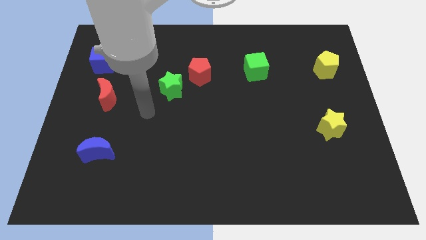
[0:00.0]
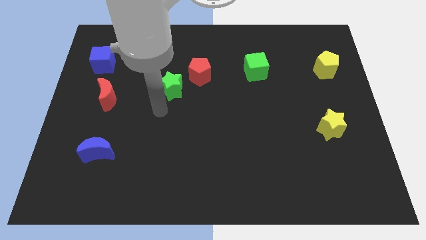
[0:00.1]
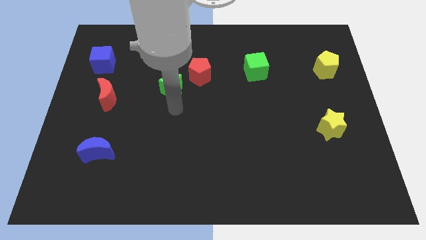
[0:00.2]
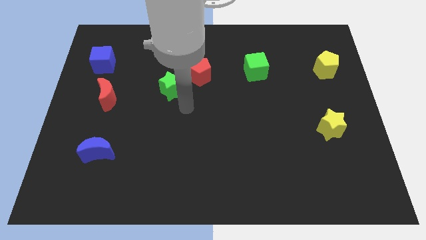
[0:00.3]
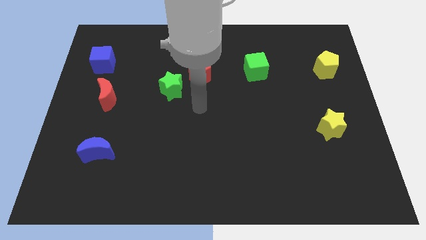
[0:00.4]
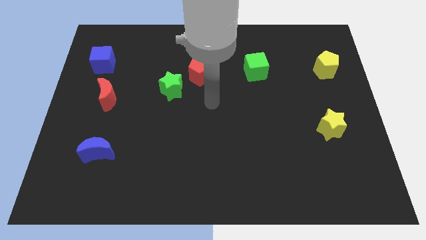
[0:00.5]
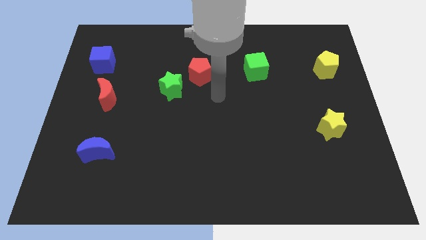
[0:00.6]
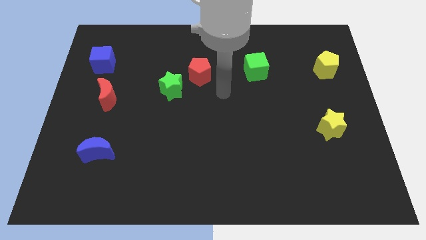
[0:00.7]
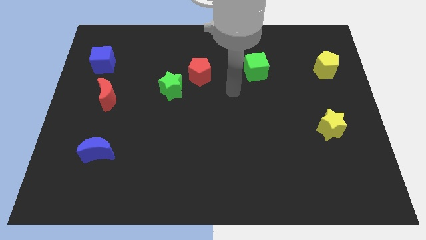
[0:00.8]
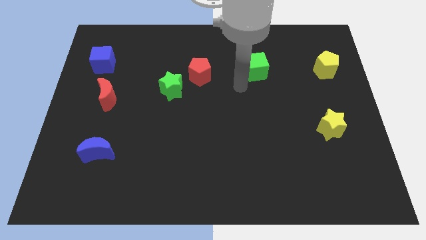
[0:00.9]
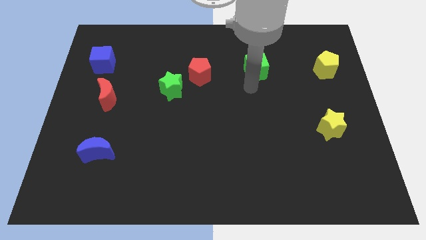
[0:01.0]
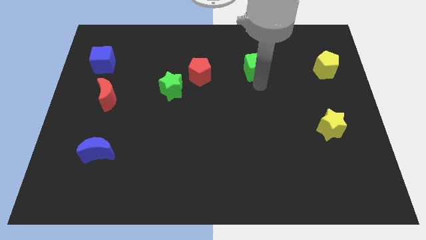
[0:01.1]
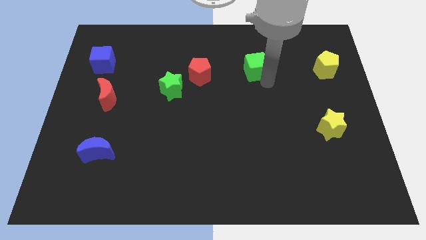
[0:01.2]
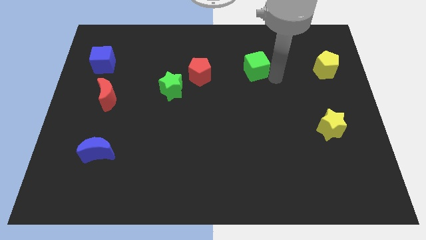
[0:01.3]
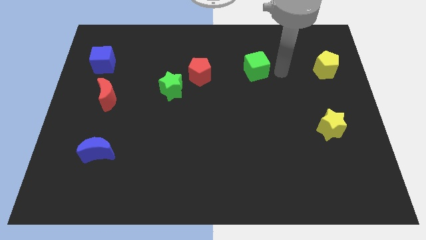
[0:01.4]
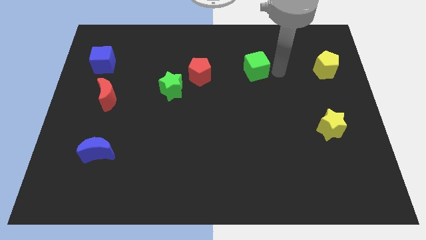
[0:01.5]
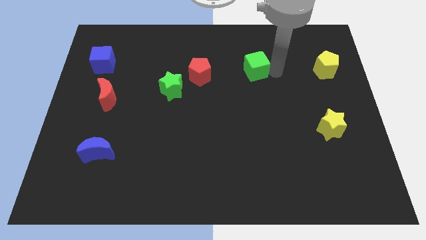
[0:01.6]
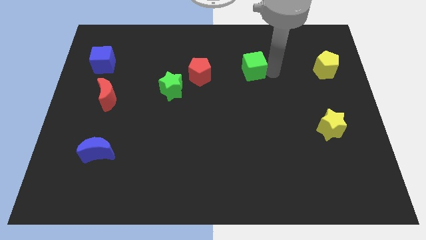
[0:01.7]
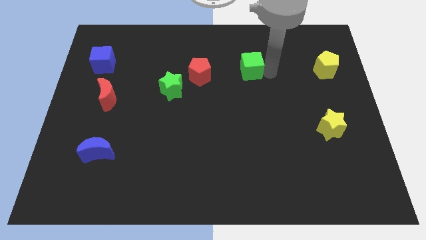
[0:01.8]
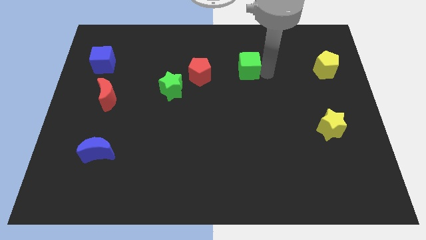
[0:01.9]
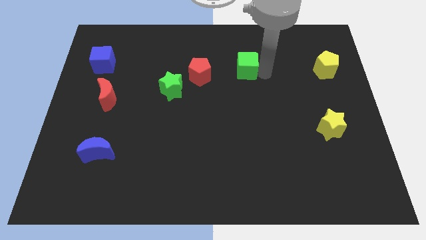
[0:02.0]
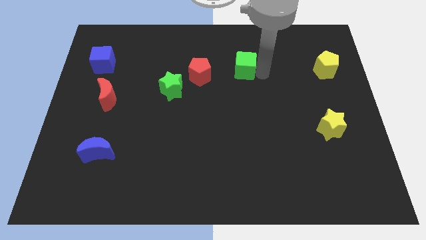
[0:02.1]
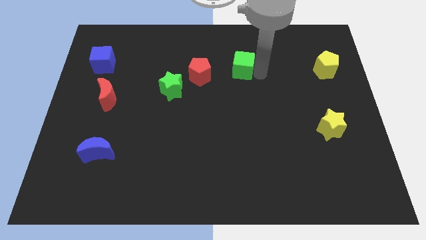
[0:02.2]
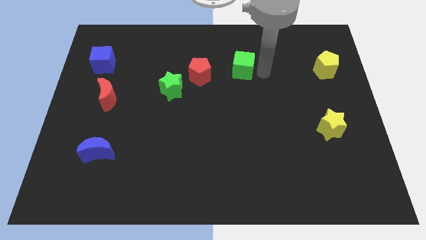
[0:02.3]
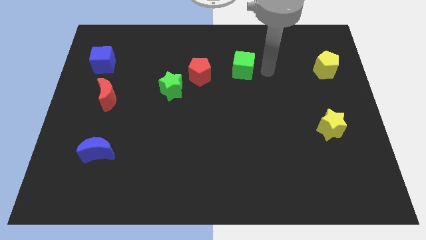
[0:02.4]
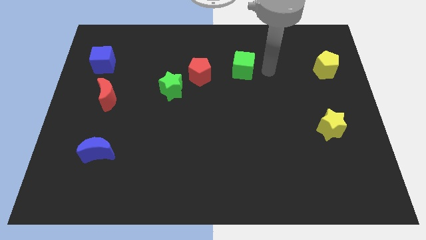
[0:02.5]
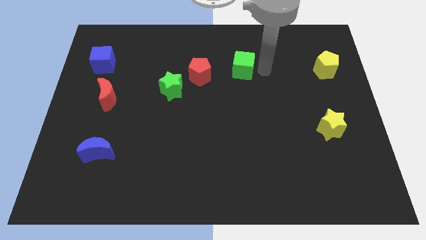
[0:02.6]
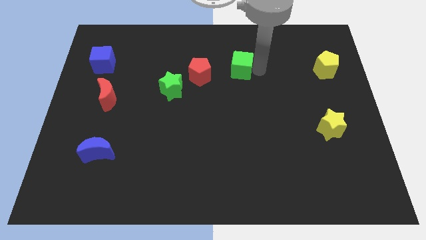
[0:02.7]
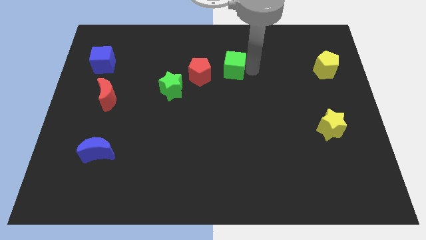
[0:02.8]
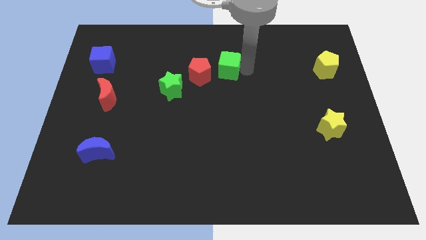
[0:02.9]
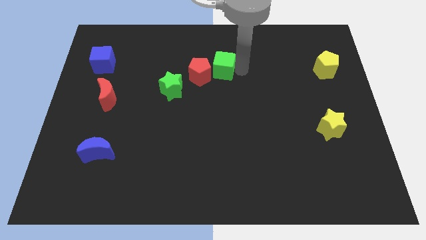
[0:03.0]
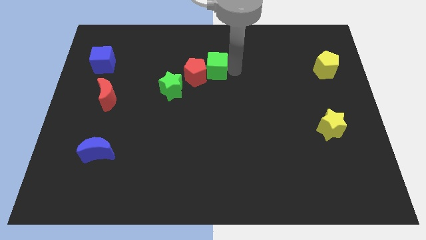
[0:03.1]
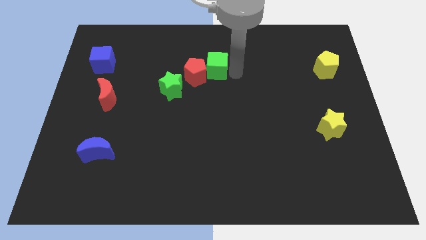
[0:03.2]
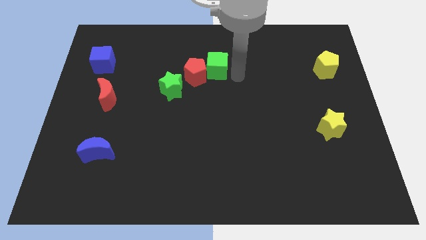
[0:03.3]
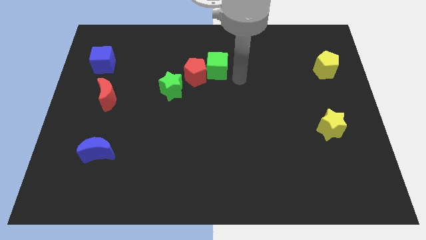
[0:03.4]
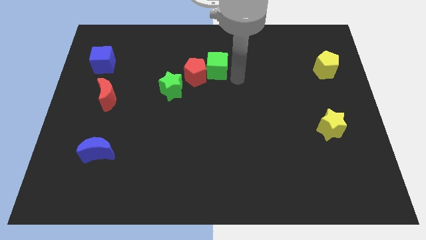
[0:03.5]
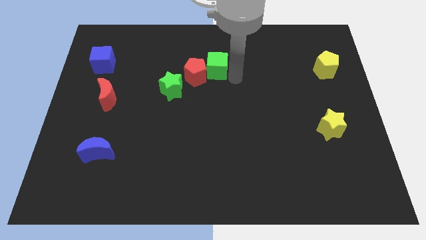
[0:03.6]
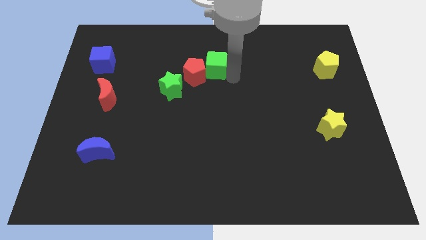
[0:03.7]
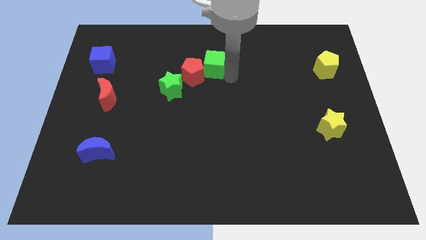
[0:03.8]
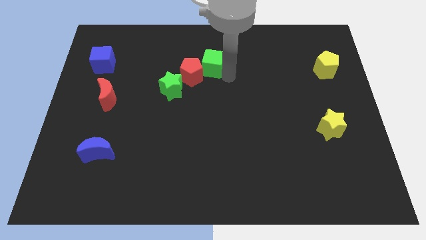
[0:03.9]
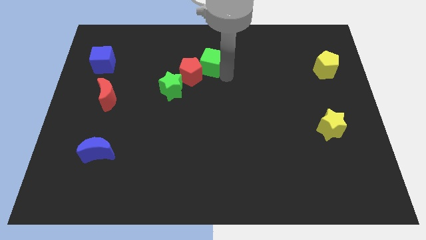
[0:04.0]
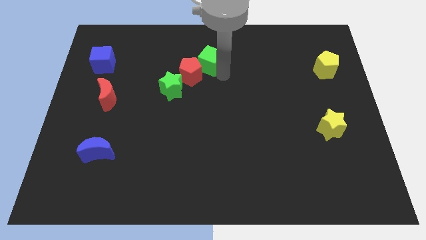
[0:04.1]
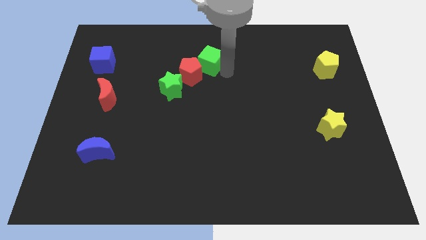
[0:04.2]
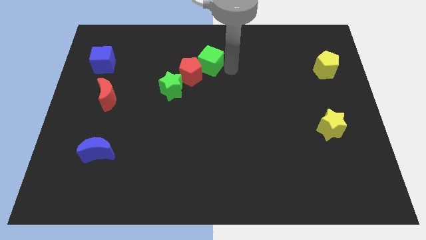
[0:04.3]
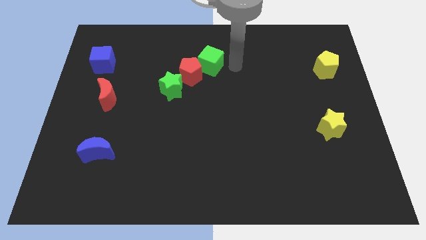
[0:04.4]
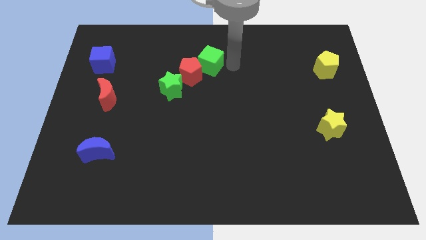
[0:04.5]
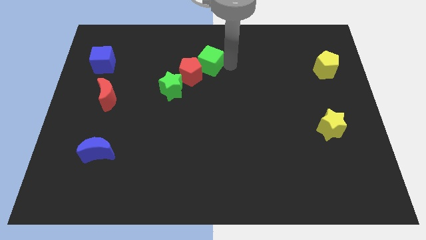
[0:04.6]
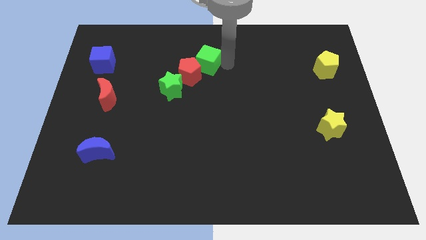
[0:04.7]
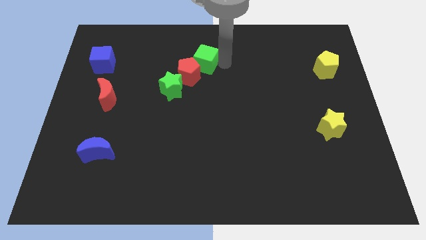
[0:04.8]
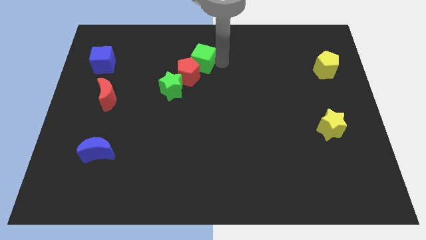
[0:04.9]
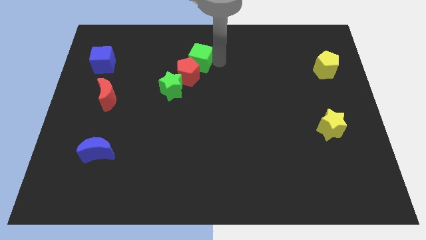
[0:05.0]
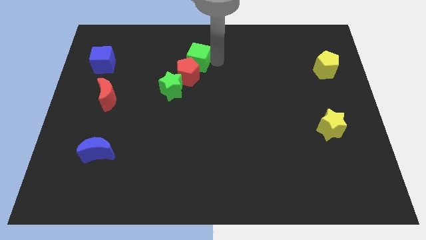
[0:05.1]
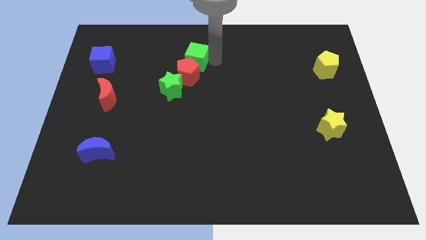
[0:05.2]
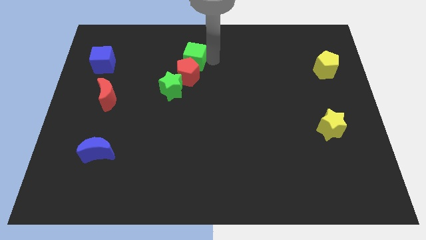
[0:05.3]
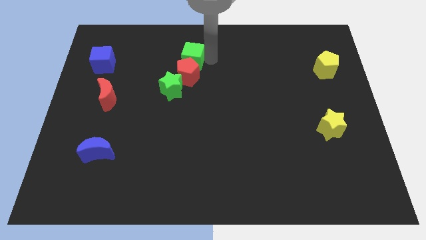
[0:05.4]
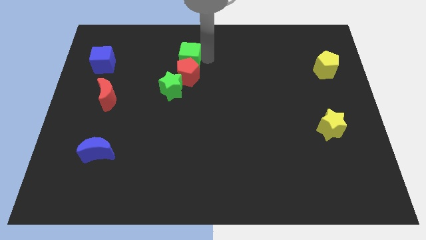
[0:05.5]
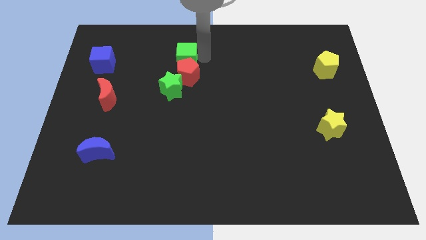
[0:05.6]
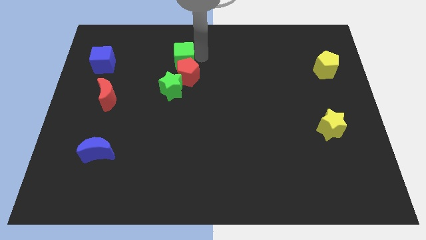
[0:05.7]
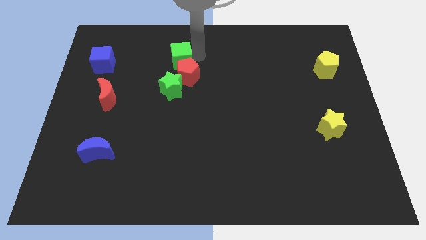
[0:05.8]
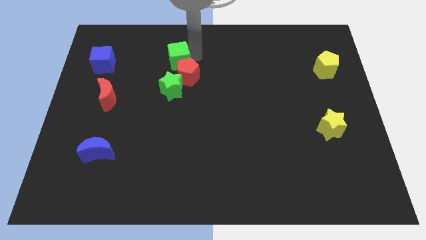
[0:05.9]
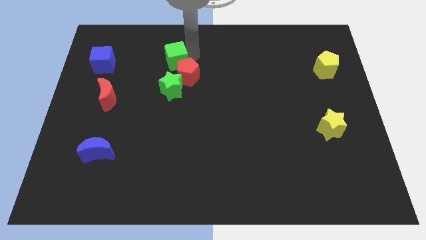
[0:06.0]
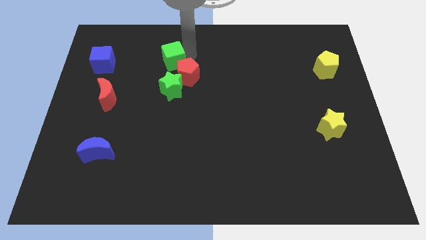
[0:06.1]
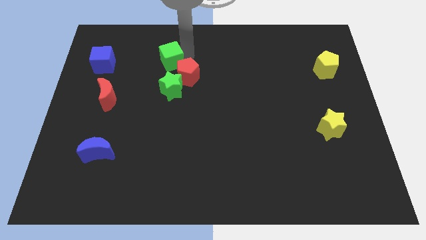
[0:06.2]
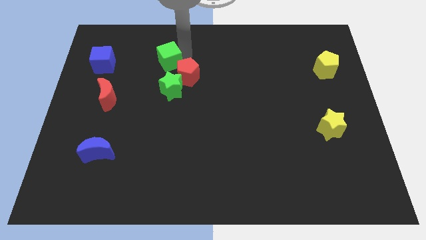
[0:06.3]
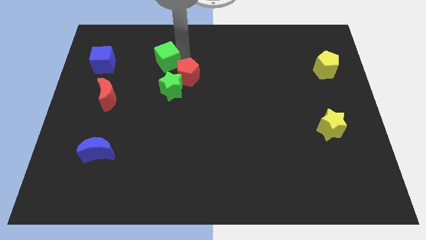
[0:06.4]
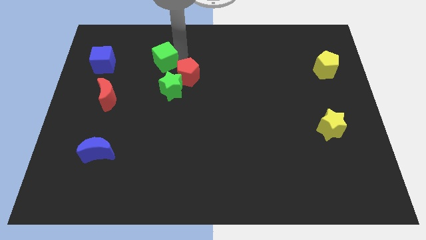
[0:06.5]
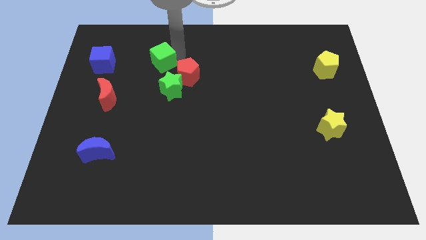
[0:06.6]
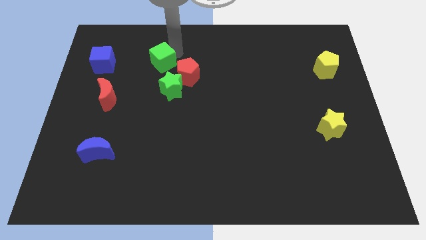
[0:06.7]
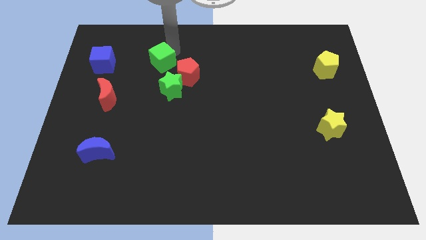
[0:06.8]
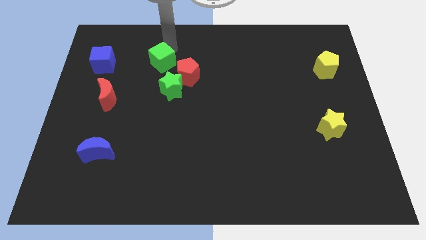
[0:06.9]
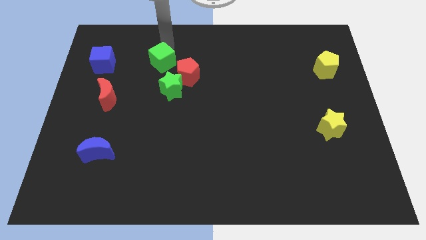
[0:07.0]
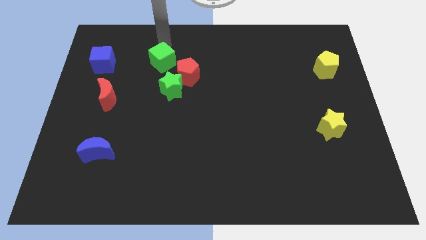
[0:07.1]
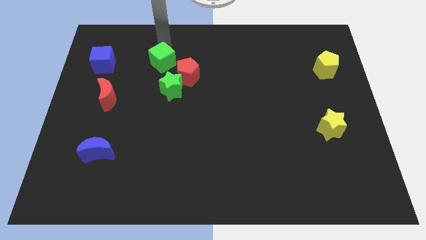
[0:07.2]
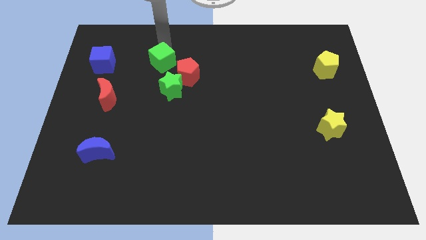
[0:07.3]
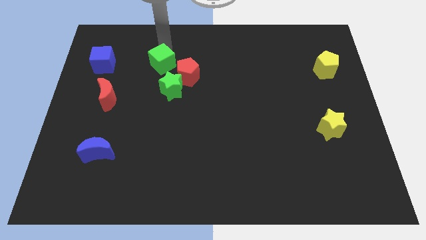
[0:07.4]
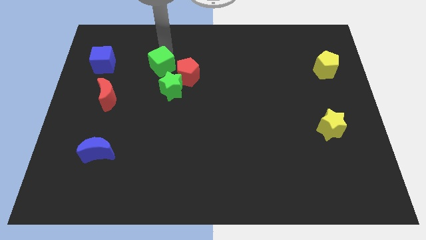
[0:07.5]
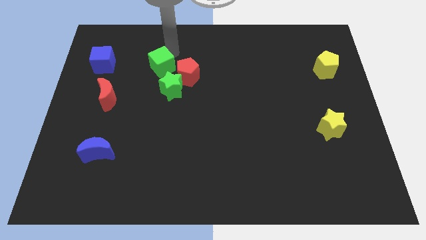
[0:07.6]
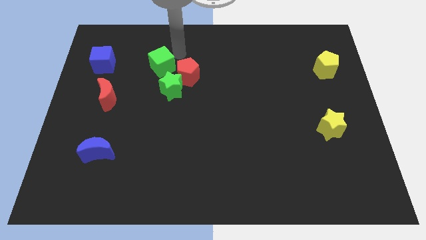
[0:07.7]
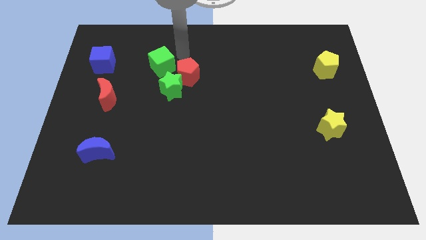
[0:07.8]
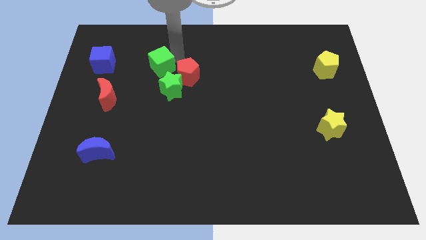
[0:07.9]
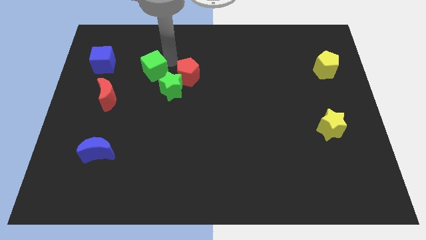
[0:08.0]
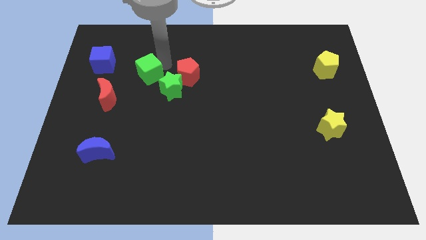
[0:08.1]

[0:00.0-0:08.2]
put the green cube to the top right side of the red moon
